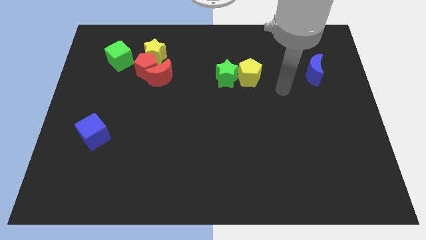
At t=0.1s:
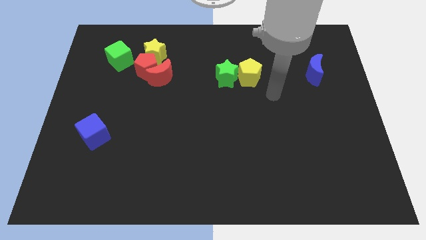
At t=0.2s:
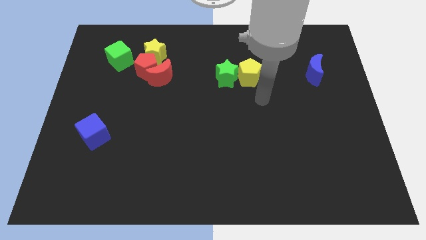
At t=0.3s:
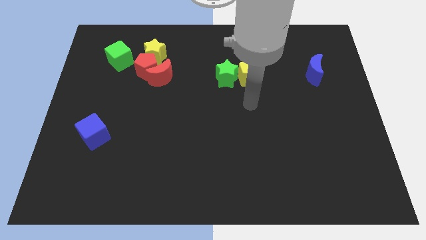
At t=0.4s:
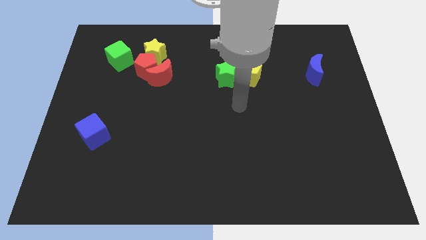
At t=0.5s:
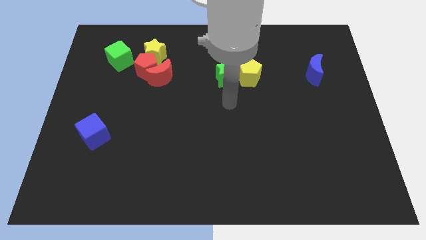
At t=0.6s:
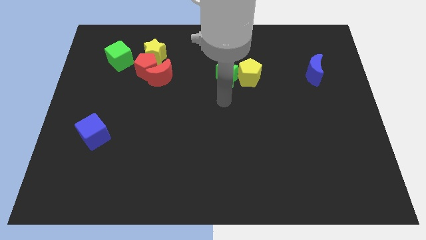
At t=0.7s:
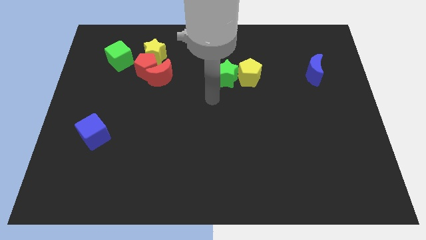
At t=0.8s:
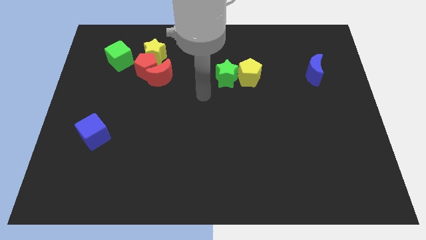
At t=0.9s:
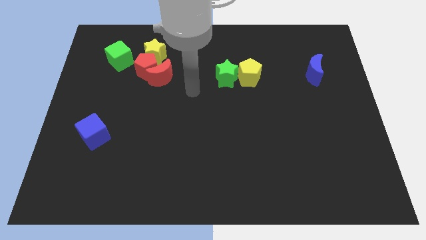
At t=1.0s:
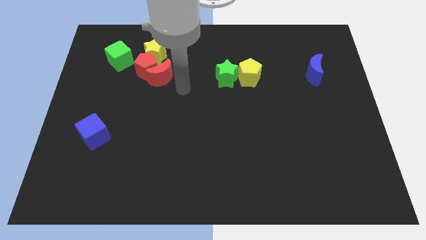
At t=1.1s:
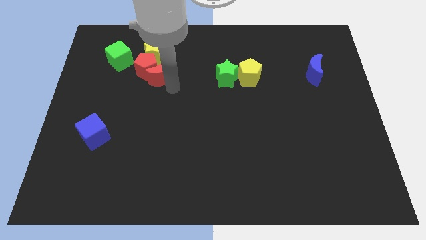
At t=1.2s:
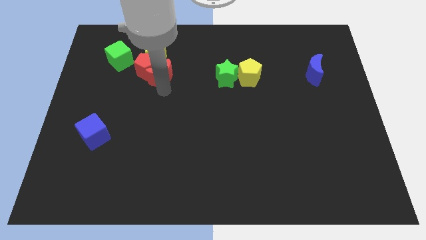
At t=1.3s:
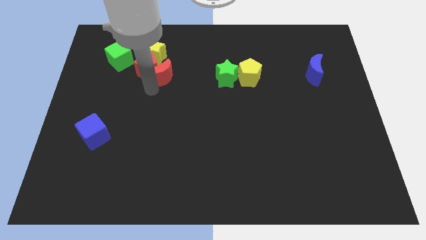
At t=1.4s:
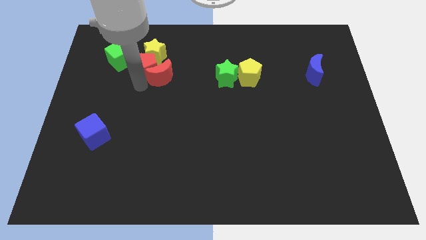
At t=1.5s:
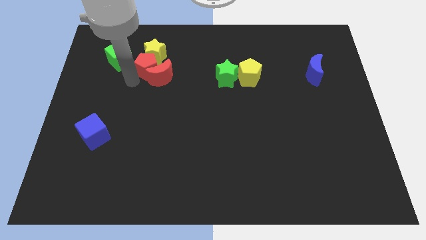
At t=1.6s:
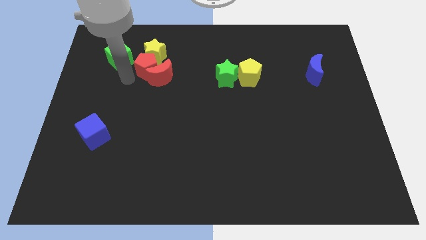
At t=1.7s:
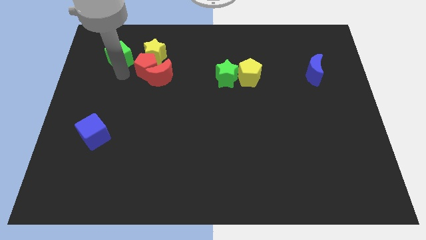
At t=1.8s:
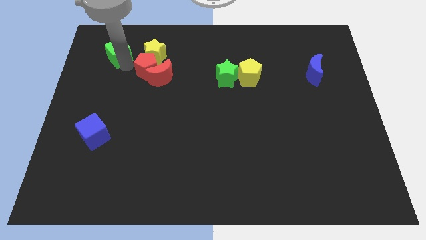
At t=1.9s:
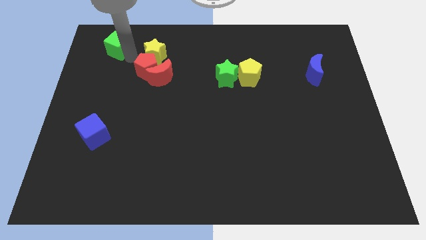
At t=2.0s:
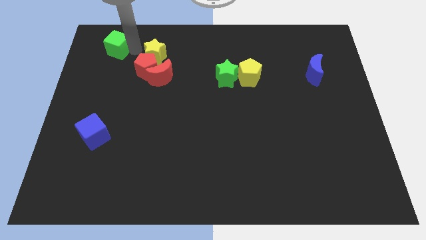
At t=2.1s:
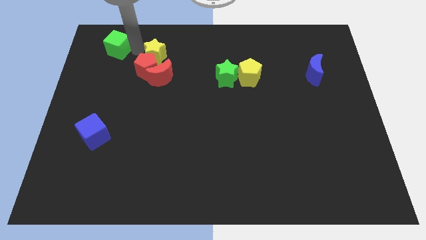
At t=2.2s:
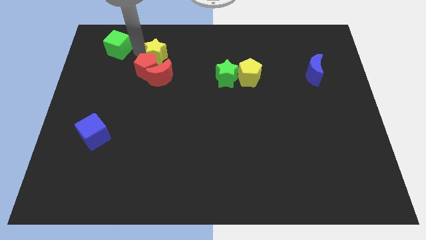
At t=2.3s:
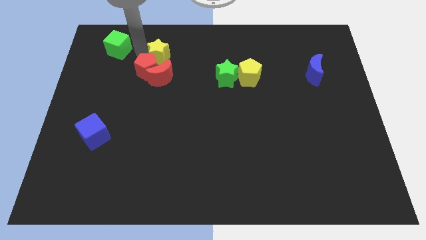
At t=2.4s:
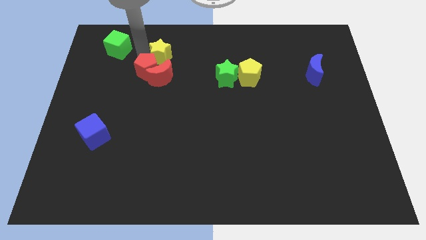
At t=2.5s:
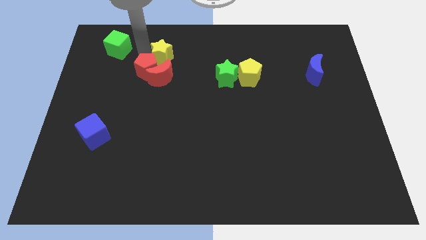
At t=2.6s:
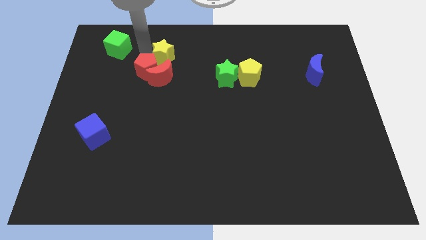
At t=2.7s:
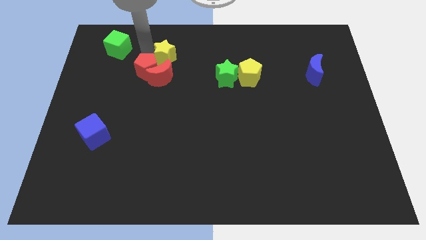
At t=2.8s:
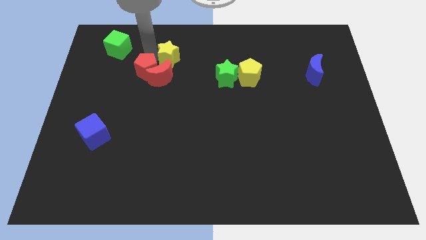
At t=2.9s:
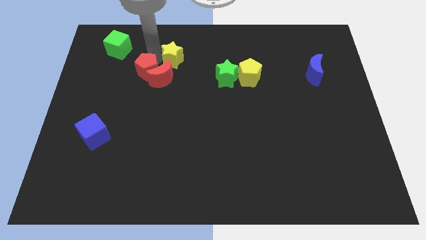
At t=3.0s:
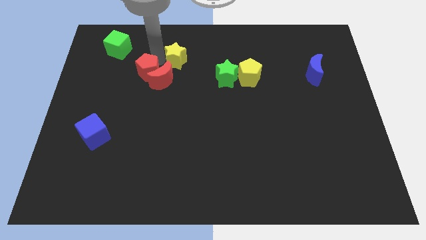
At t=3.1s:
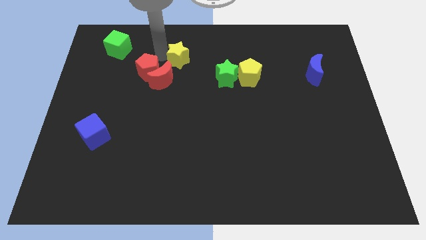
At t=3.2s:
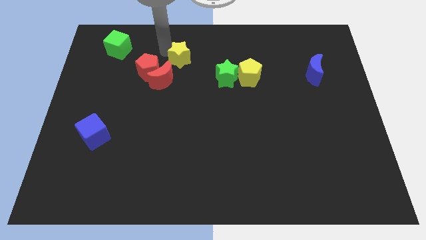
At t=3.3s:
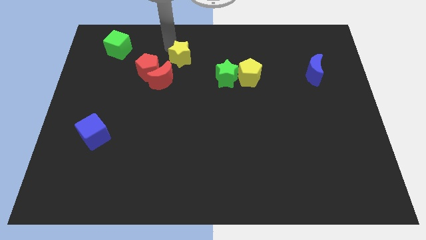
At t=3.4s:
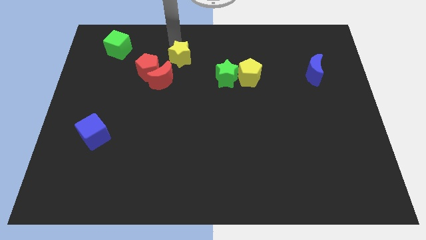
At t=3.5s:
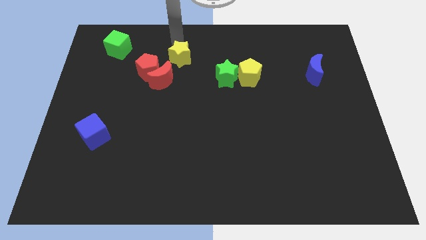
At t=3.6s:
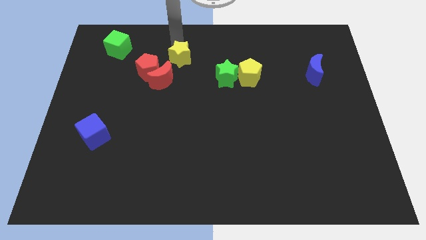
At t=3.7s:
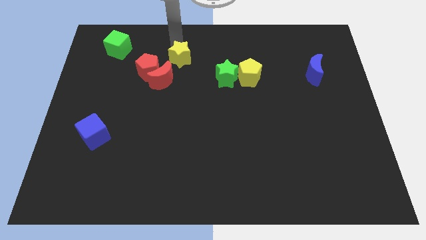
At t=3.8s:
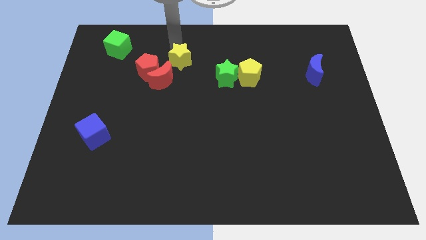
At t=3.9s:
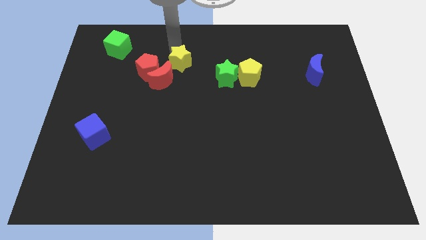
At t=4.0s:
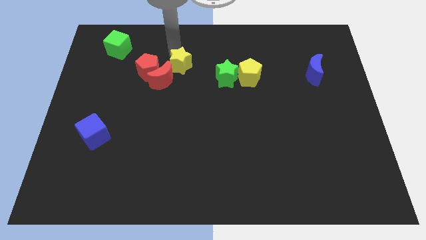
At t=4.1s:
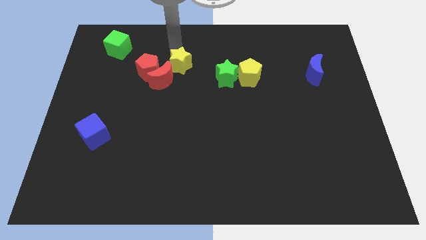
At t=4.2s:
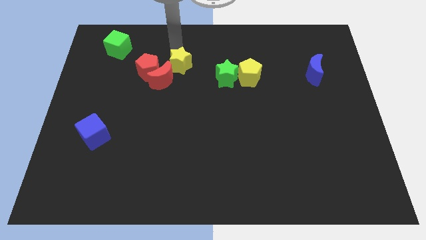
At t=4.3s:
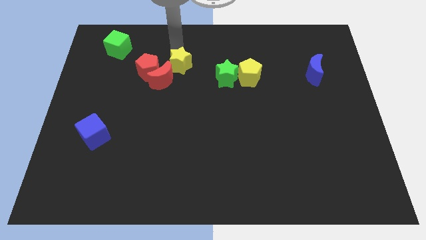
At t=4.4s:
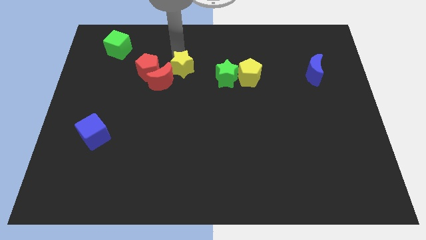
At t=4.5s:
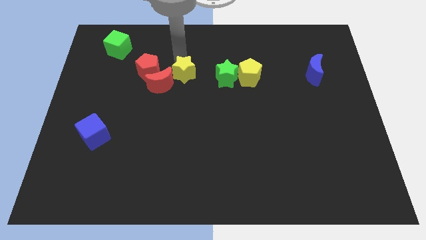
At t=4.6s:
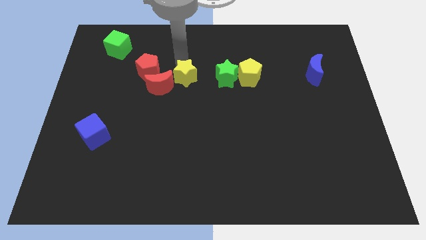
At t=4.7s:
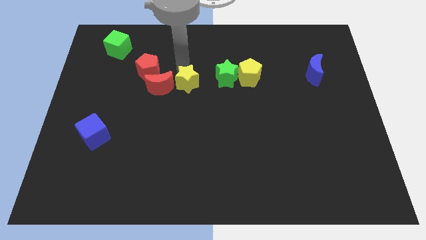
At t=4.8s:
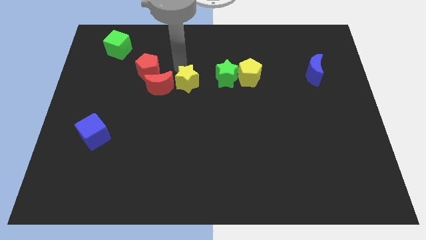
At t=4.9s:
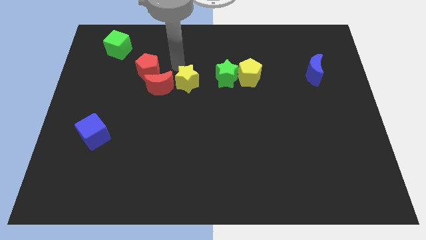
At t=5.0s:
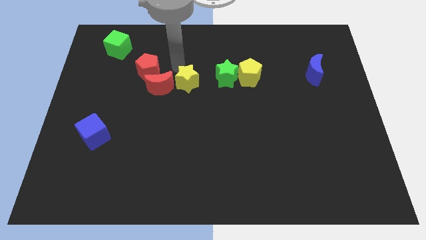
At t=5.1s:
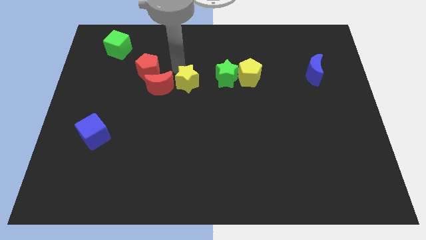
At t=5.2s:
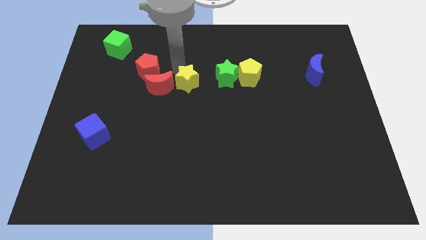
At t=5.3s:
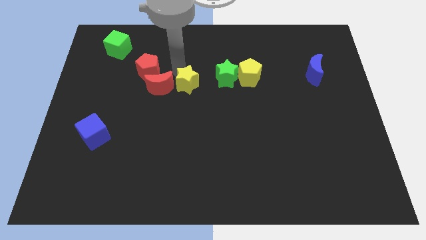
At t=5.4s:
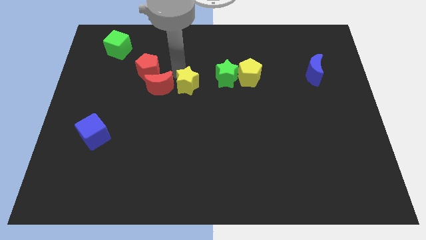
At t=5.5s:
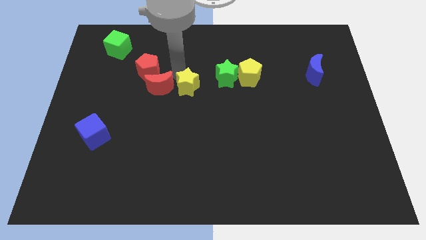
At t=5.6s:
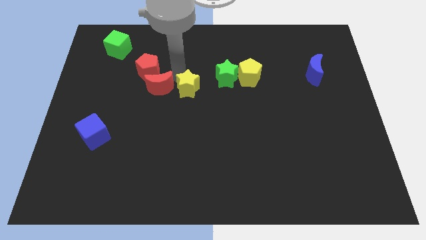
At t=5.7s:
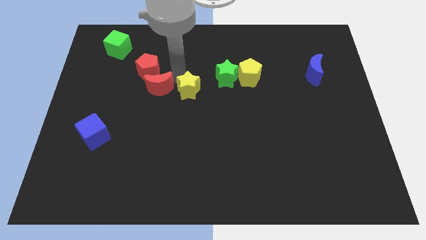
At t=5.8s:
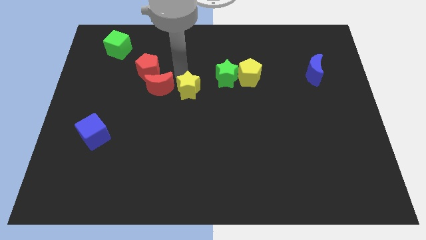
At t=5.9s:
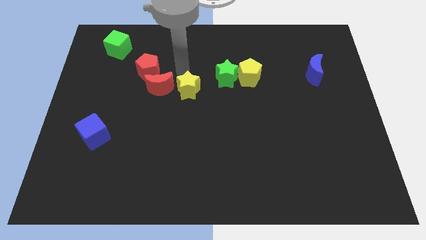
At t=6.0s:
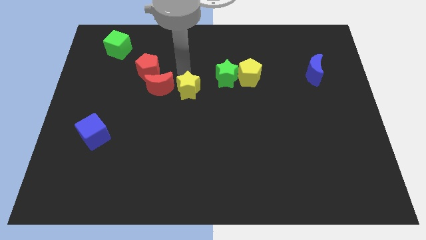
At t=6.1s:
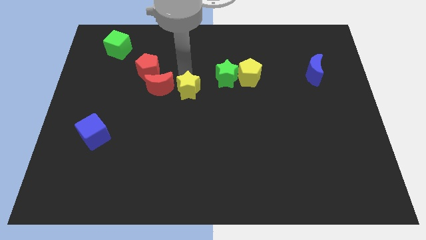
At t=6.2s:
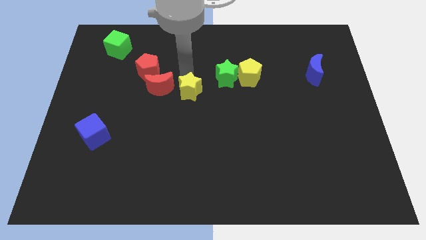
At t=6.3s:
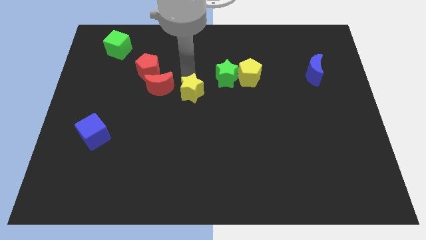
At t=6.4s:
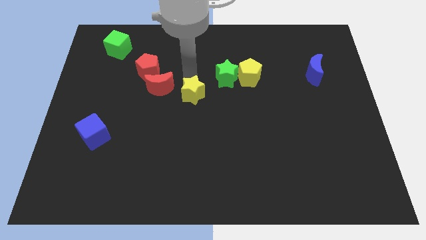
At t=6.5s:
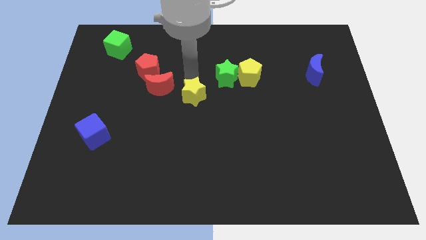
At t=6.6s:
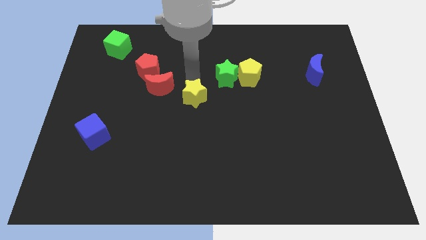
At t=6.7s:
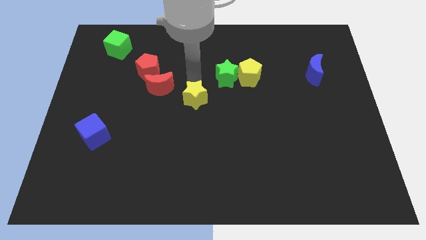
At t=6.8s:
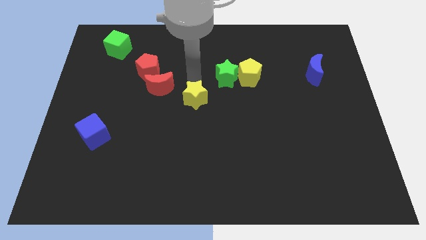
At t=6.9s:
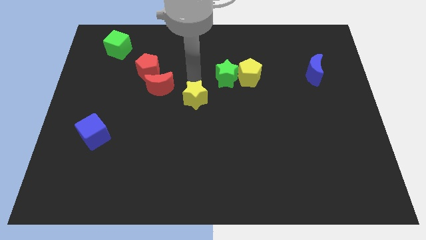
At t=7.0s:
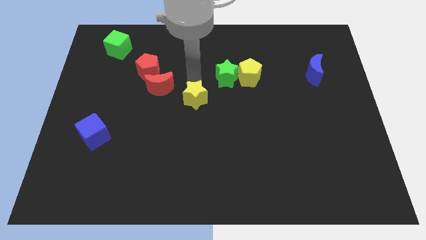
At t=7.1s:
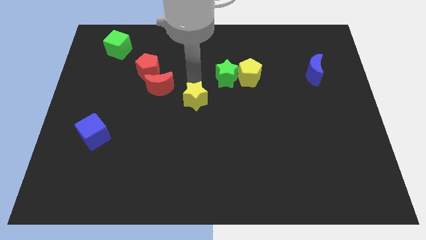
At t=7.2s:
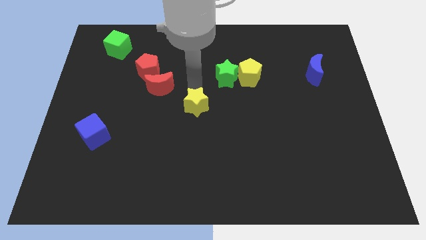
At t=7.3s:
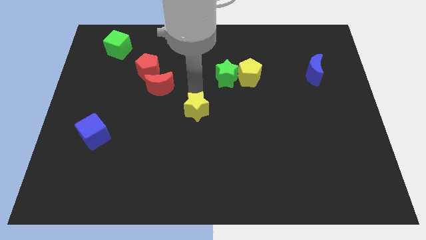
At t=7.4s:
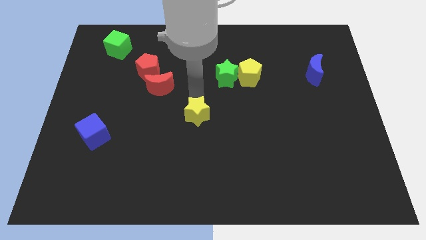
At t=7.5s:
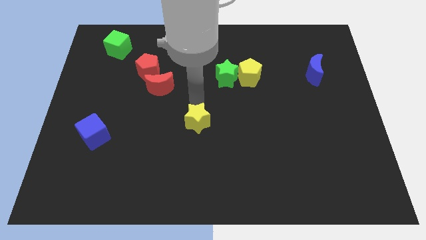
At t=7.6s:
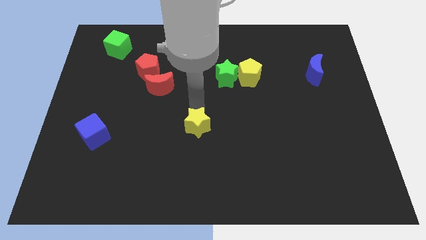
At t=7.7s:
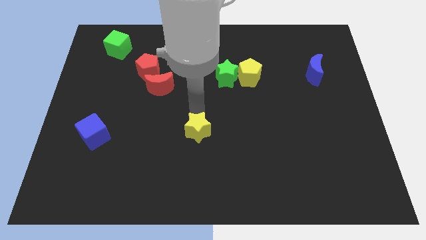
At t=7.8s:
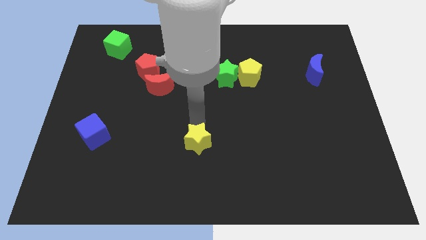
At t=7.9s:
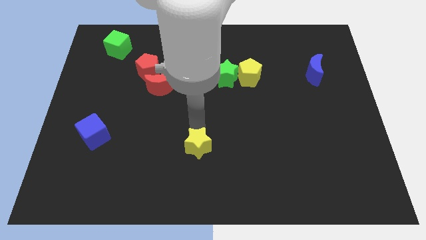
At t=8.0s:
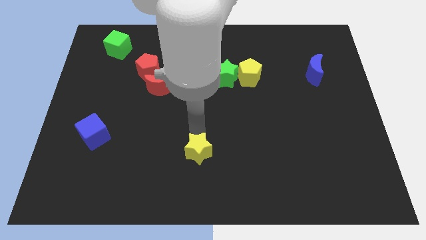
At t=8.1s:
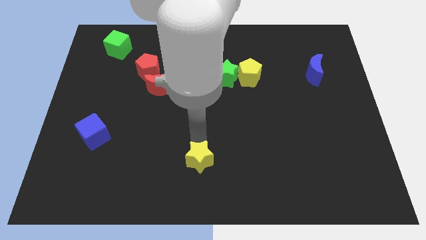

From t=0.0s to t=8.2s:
slide the yellow star to the bottom side
